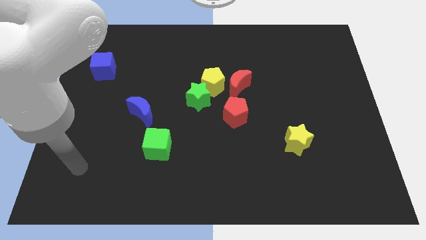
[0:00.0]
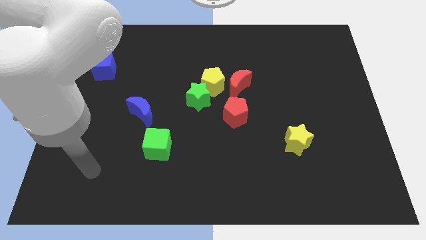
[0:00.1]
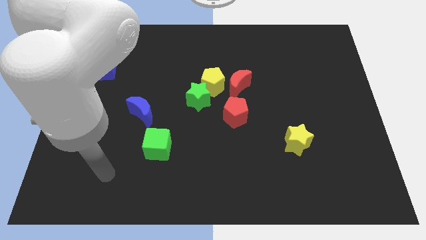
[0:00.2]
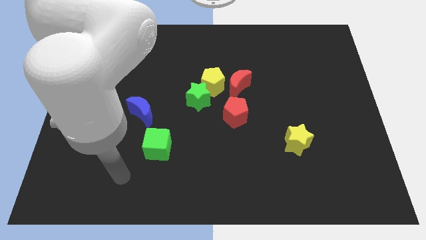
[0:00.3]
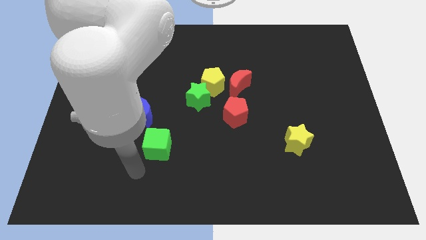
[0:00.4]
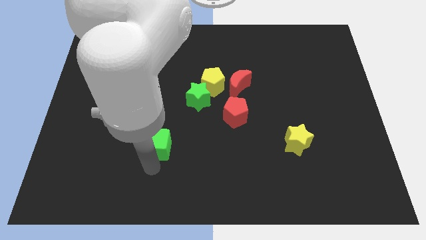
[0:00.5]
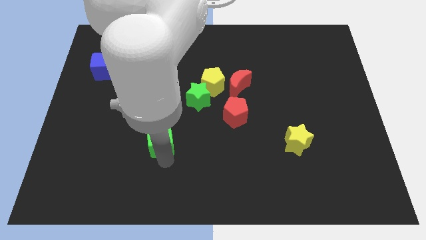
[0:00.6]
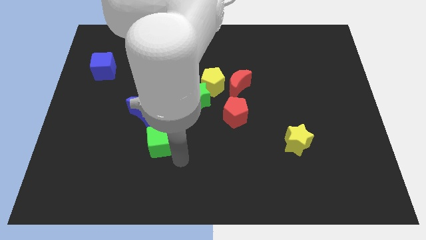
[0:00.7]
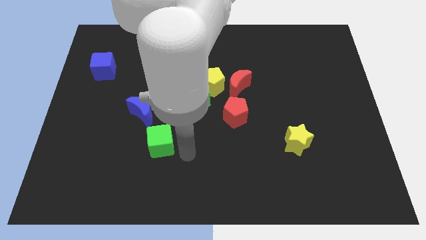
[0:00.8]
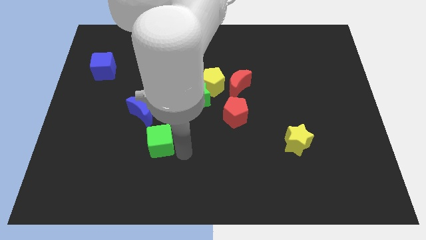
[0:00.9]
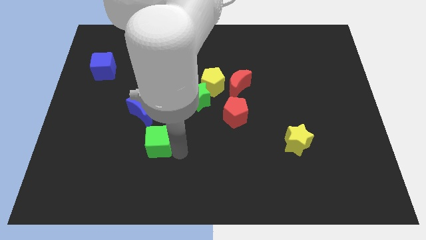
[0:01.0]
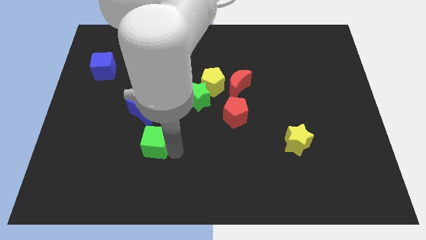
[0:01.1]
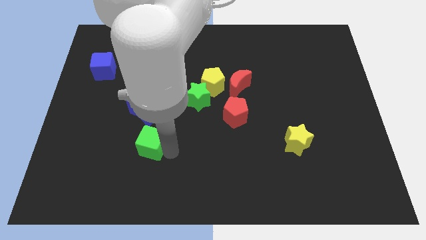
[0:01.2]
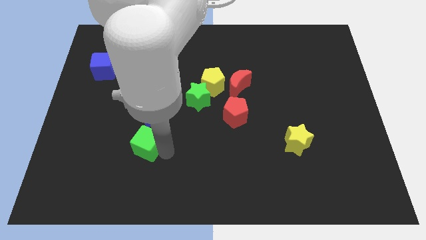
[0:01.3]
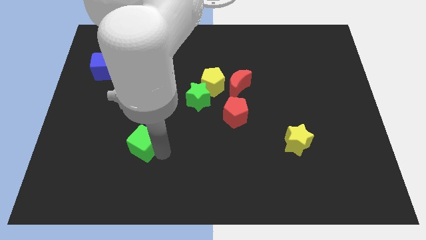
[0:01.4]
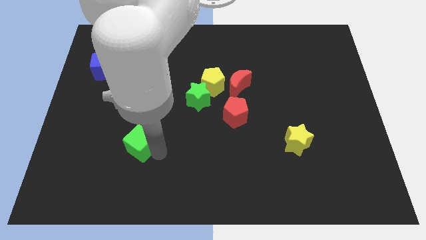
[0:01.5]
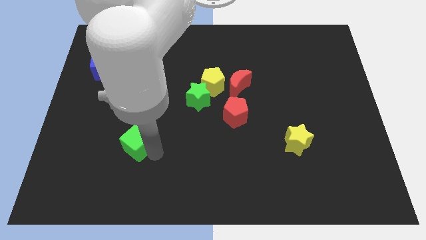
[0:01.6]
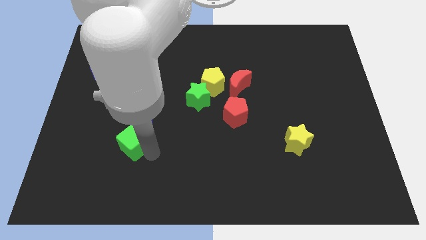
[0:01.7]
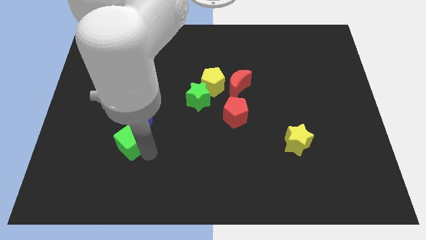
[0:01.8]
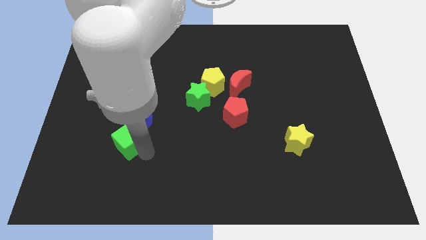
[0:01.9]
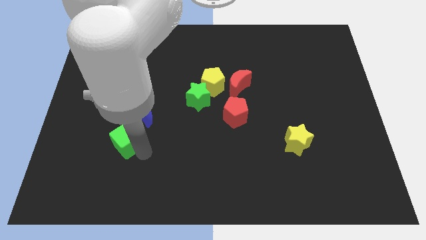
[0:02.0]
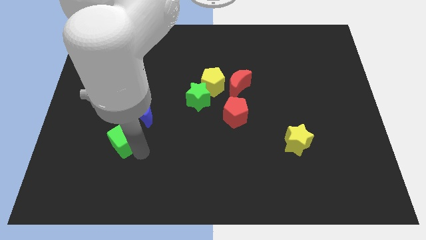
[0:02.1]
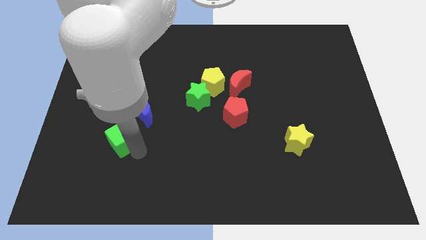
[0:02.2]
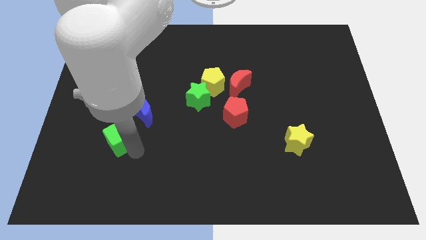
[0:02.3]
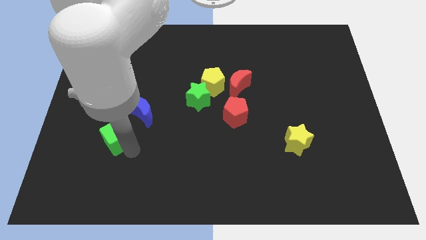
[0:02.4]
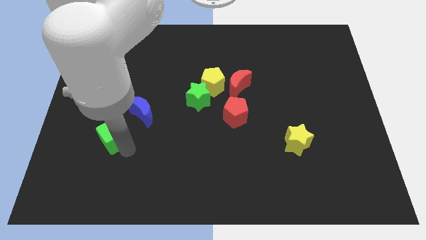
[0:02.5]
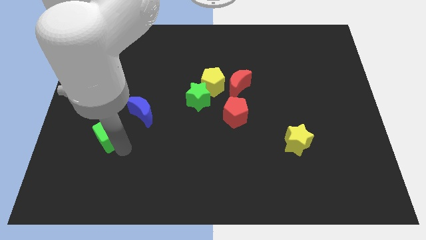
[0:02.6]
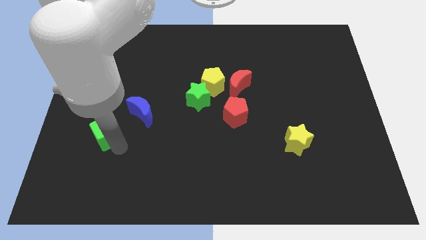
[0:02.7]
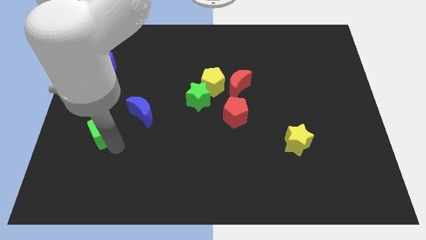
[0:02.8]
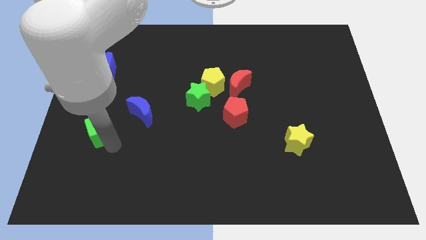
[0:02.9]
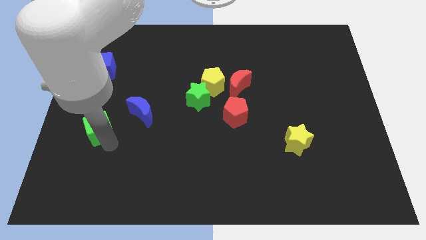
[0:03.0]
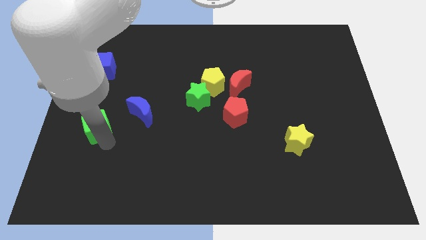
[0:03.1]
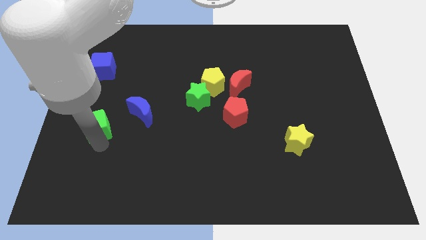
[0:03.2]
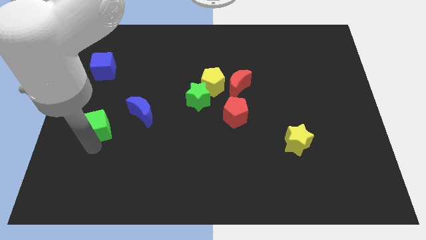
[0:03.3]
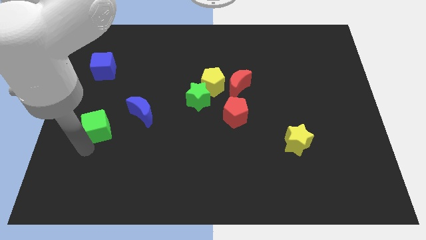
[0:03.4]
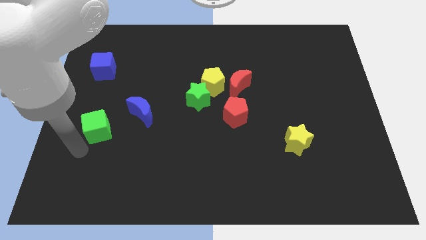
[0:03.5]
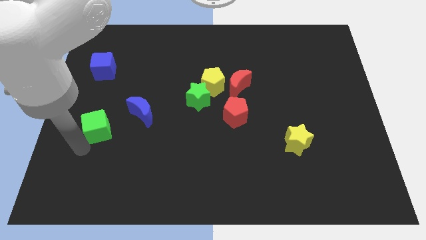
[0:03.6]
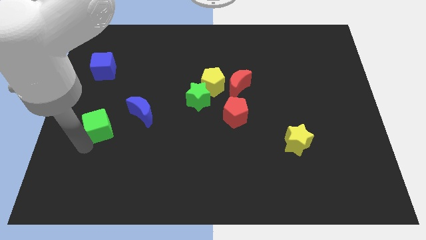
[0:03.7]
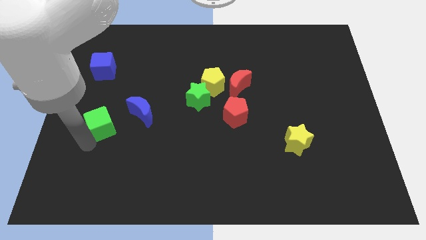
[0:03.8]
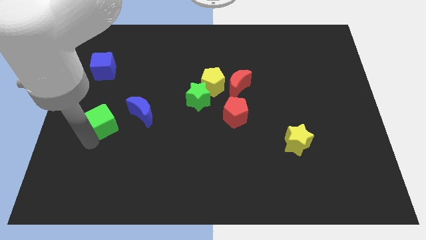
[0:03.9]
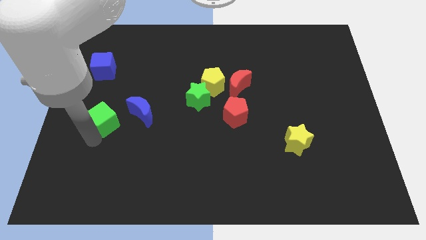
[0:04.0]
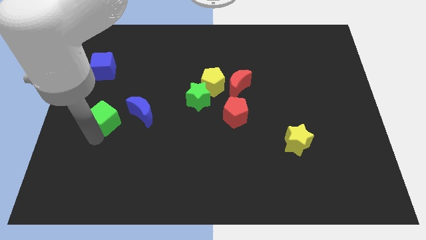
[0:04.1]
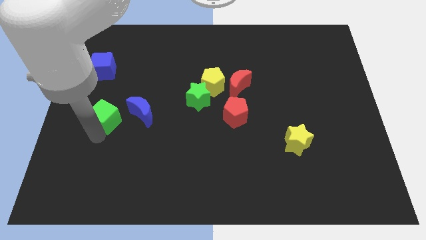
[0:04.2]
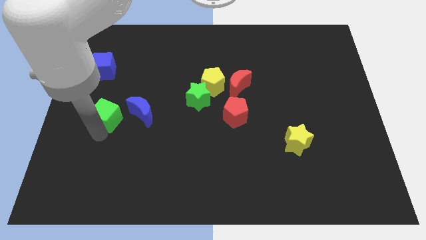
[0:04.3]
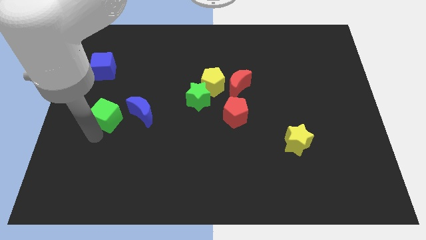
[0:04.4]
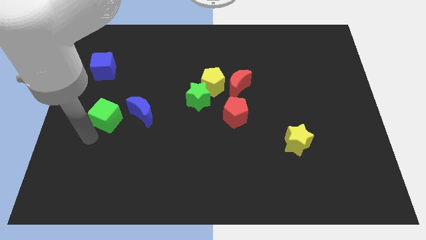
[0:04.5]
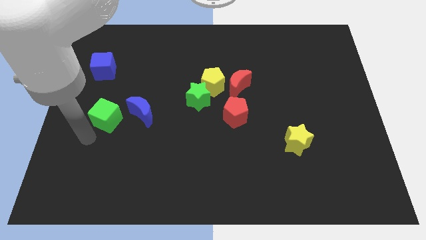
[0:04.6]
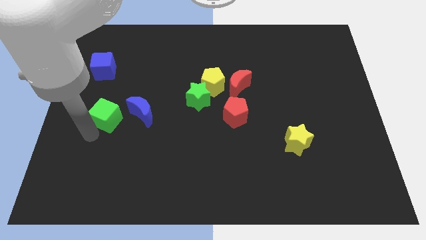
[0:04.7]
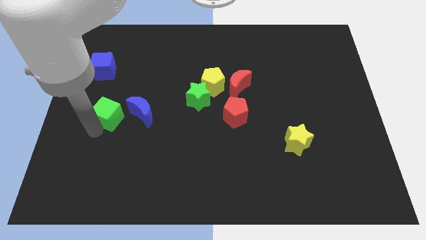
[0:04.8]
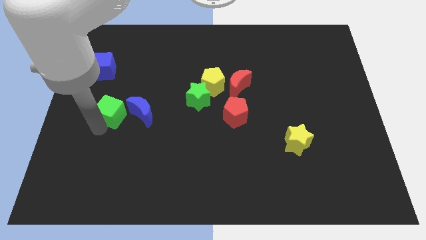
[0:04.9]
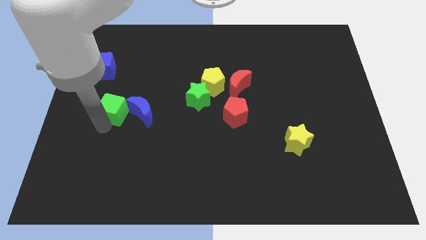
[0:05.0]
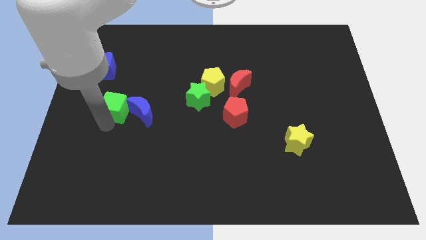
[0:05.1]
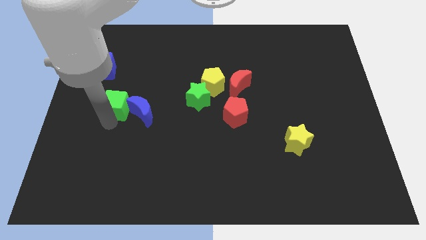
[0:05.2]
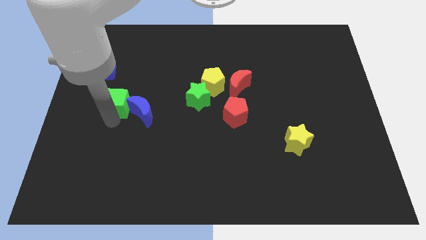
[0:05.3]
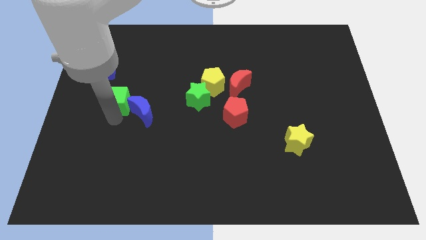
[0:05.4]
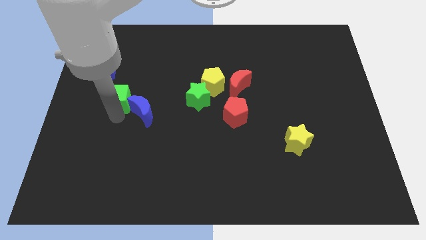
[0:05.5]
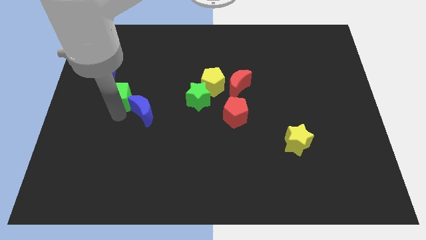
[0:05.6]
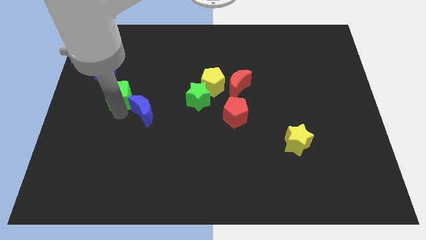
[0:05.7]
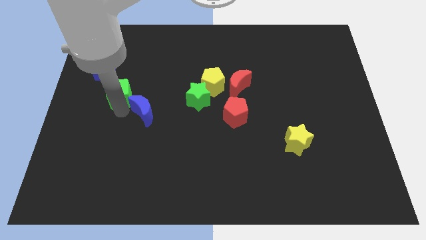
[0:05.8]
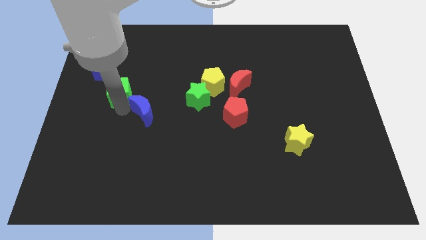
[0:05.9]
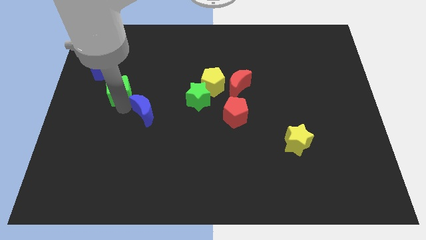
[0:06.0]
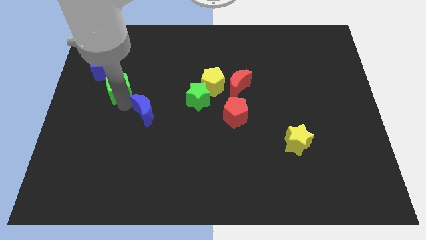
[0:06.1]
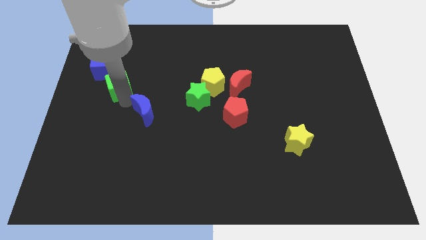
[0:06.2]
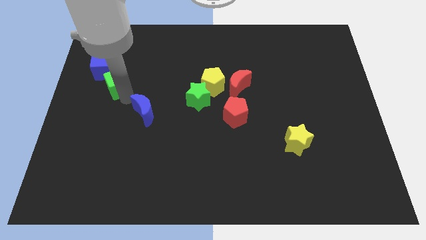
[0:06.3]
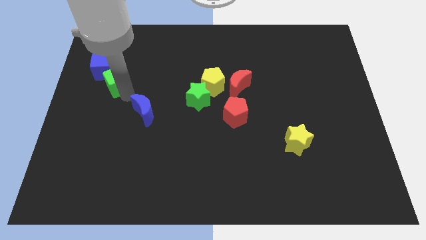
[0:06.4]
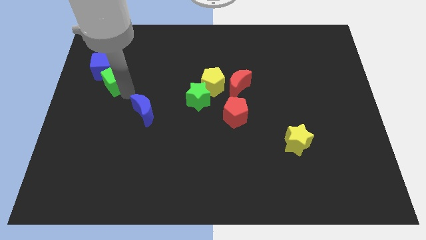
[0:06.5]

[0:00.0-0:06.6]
move the green cube to the blue cube
